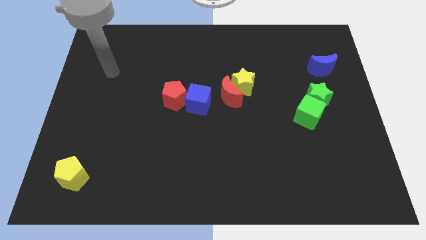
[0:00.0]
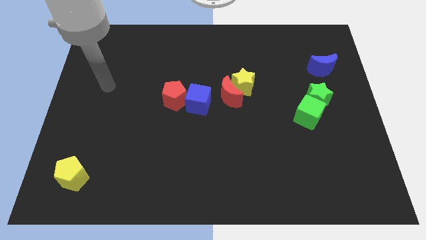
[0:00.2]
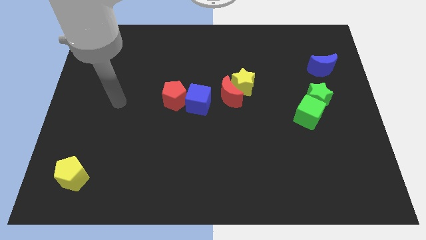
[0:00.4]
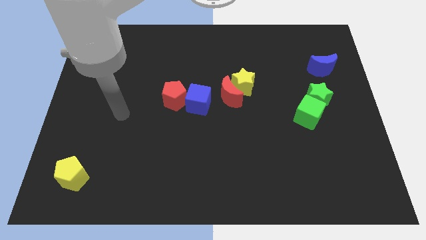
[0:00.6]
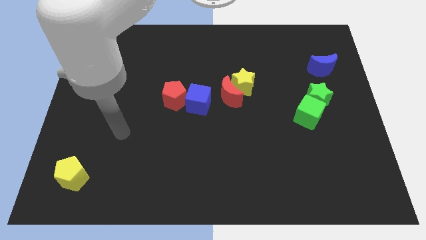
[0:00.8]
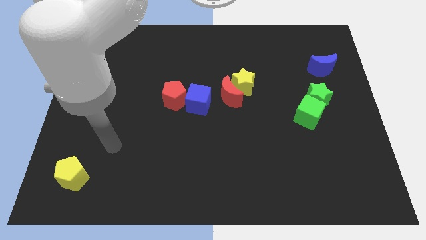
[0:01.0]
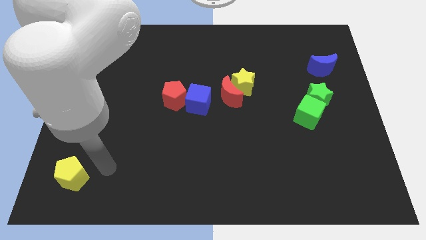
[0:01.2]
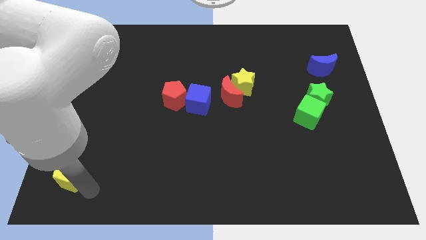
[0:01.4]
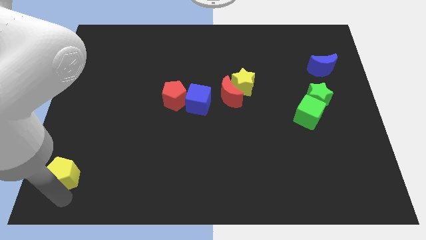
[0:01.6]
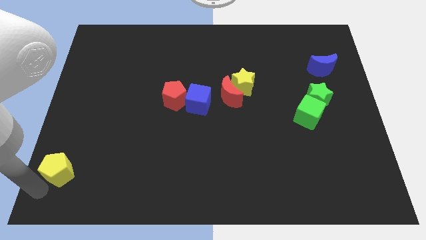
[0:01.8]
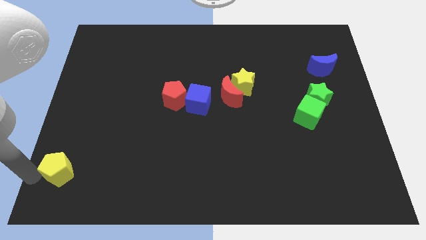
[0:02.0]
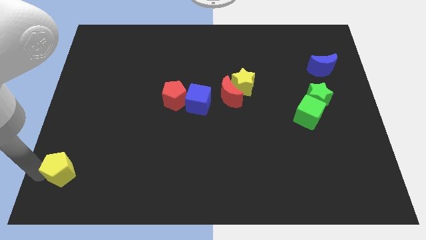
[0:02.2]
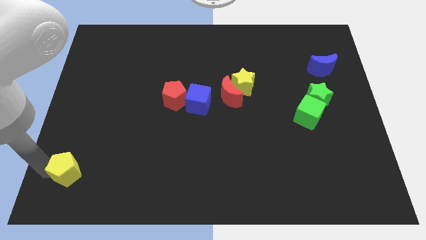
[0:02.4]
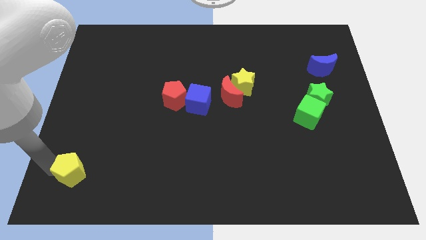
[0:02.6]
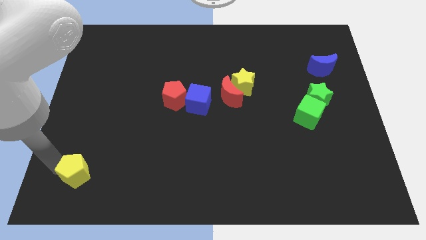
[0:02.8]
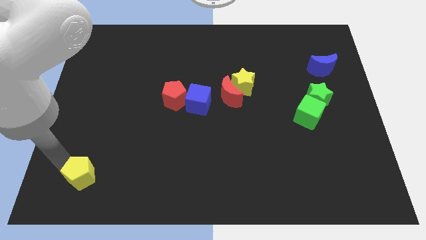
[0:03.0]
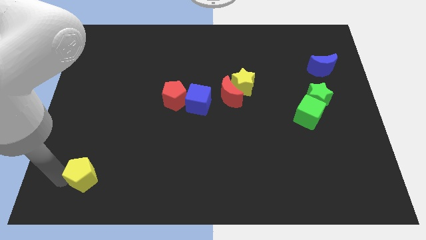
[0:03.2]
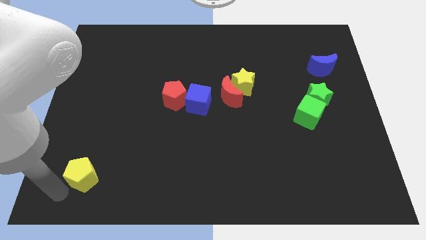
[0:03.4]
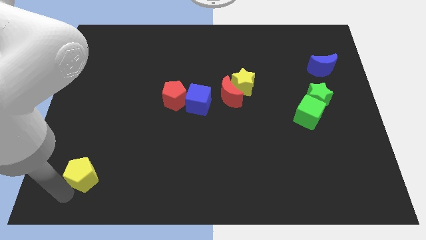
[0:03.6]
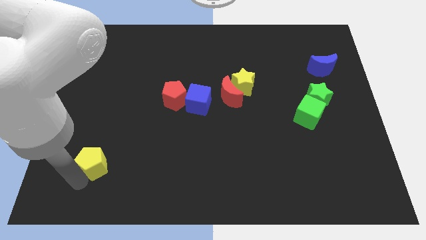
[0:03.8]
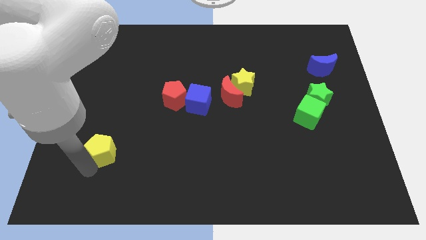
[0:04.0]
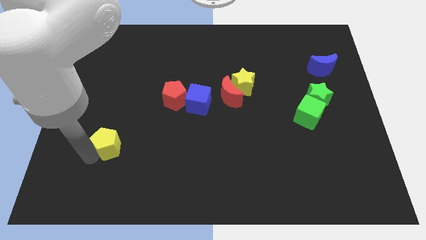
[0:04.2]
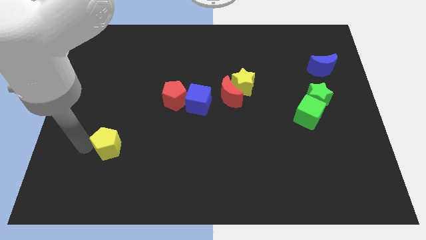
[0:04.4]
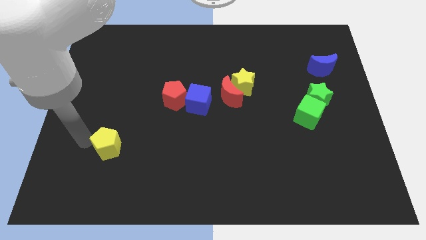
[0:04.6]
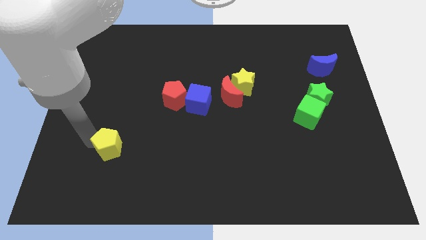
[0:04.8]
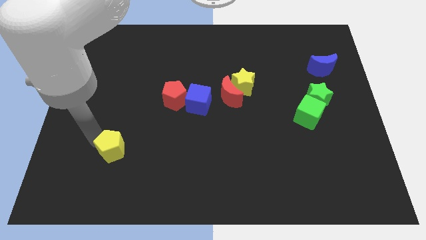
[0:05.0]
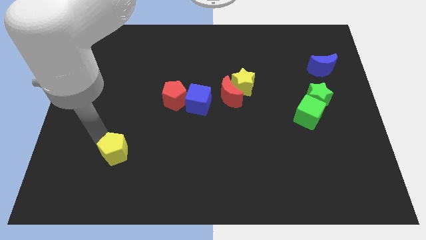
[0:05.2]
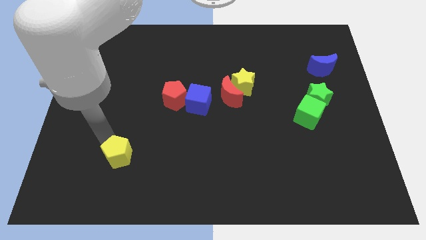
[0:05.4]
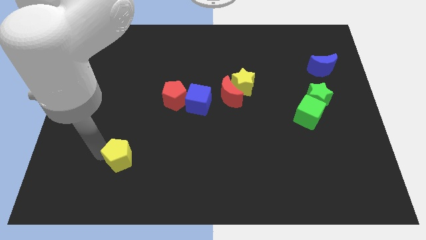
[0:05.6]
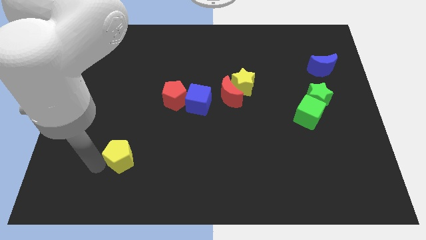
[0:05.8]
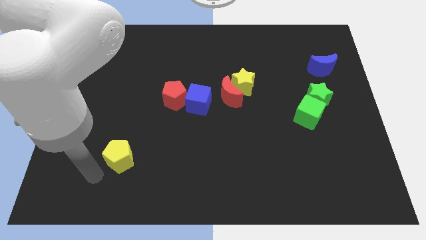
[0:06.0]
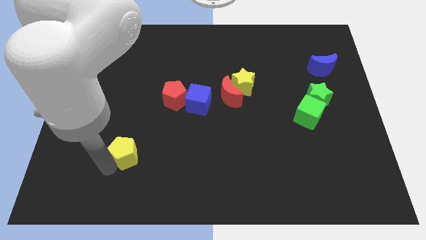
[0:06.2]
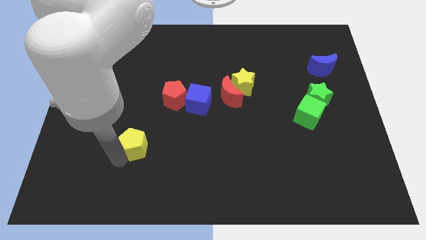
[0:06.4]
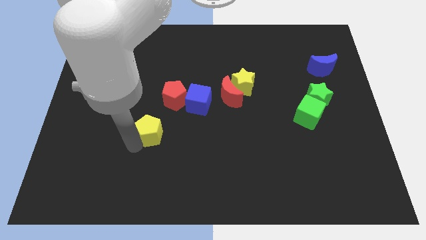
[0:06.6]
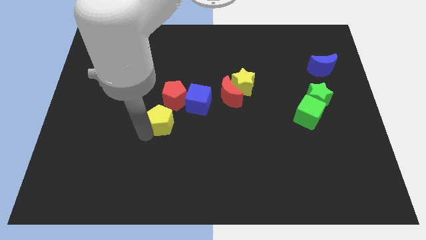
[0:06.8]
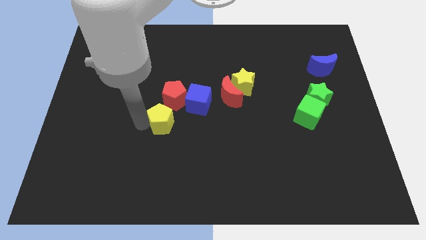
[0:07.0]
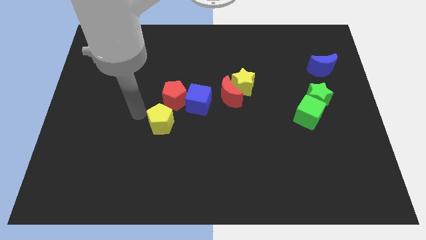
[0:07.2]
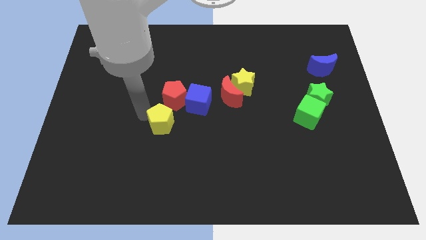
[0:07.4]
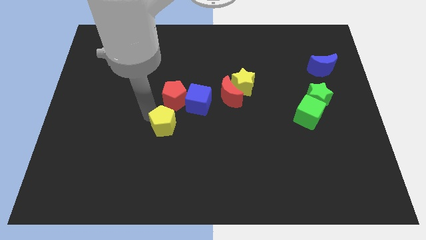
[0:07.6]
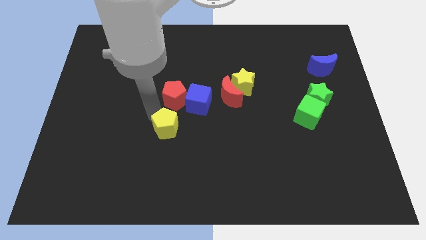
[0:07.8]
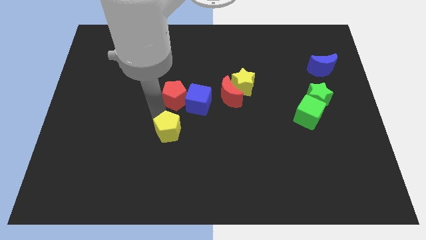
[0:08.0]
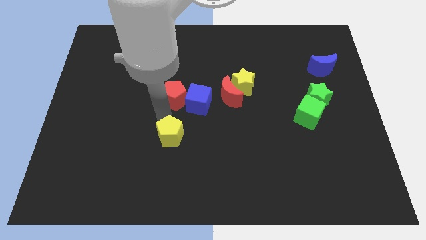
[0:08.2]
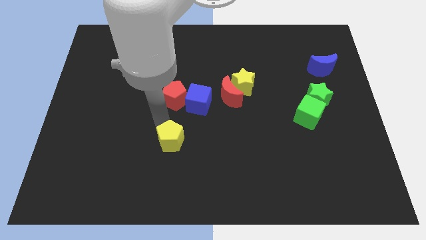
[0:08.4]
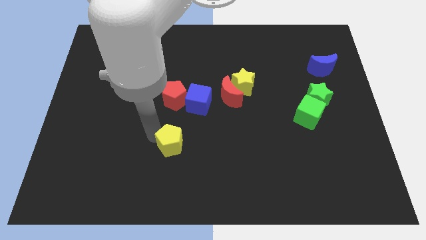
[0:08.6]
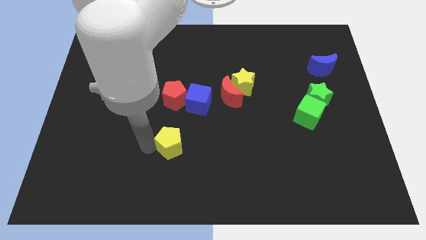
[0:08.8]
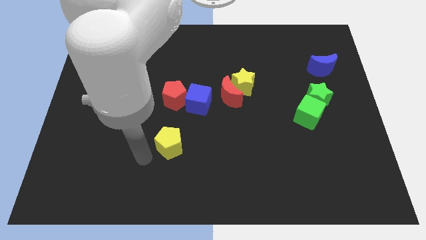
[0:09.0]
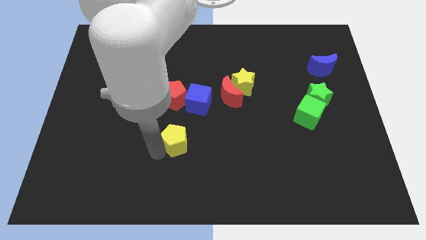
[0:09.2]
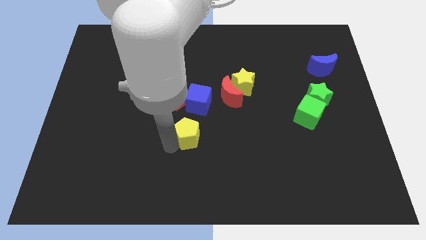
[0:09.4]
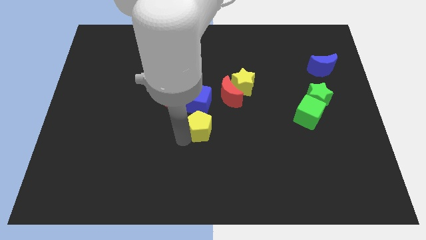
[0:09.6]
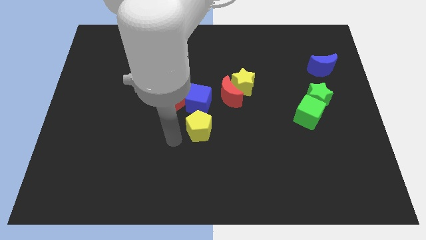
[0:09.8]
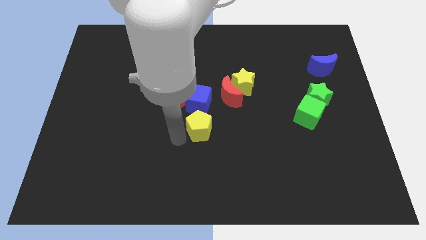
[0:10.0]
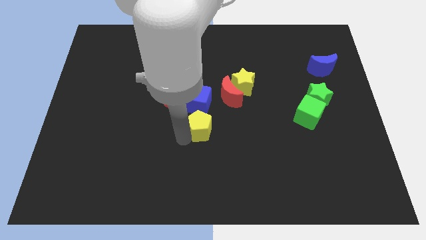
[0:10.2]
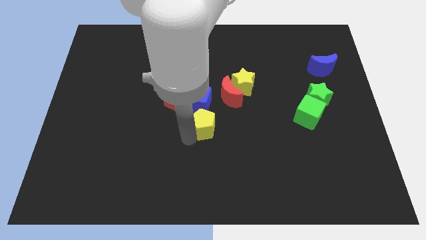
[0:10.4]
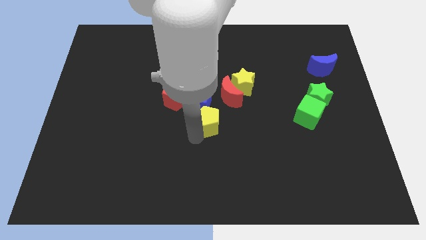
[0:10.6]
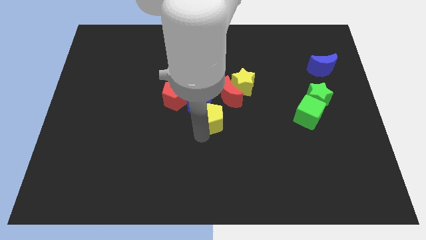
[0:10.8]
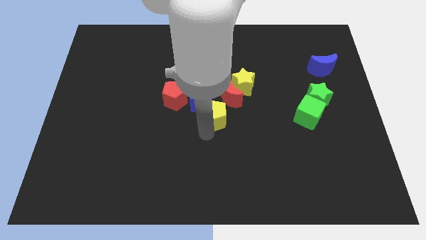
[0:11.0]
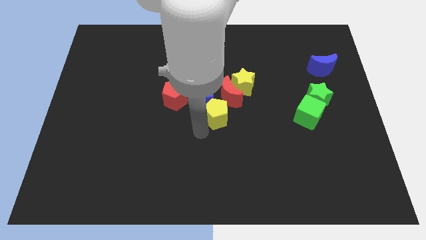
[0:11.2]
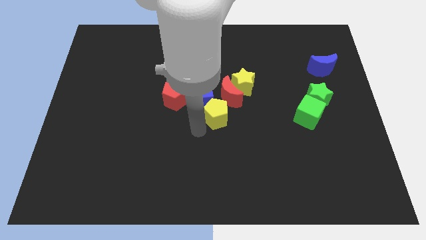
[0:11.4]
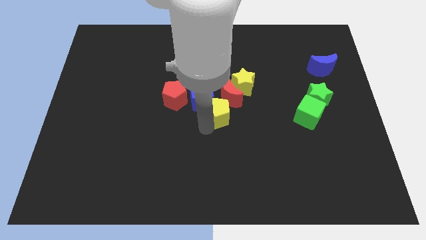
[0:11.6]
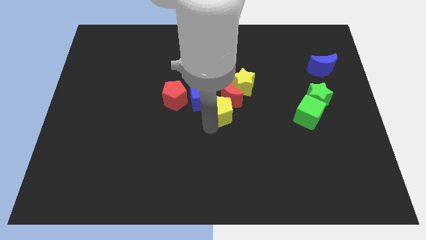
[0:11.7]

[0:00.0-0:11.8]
move the yellow pentagon just right of the blue cube

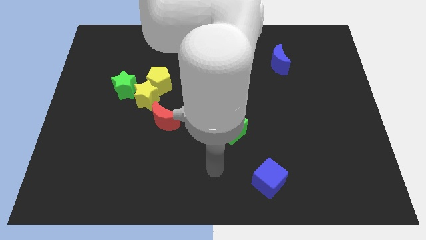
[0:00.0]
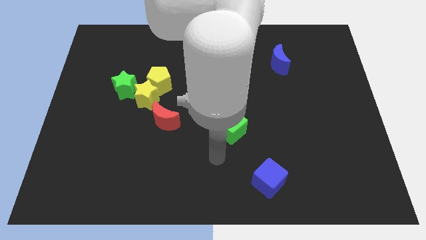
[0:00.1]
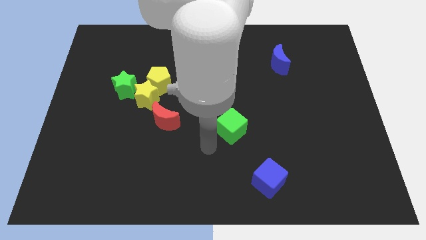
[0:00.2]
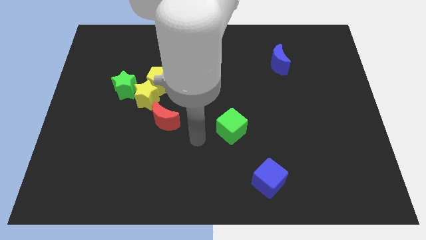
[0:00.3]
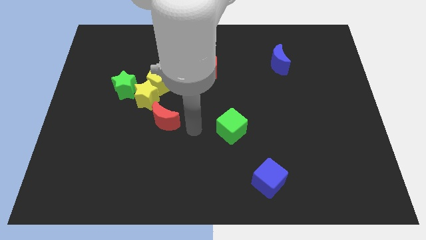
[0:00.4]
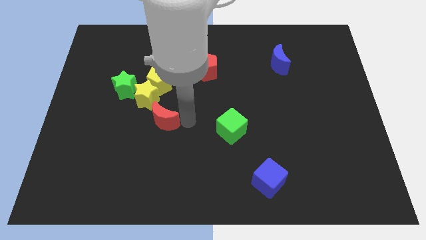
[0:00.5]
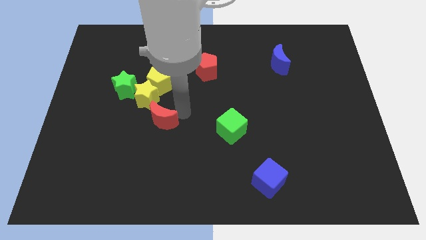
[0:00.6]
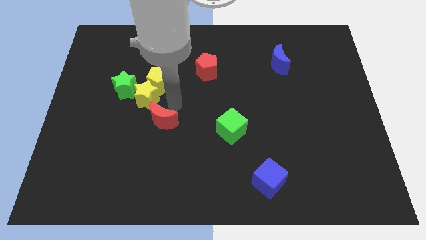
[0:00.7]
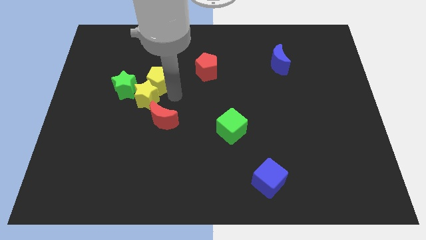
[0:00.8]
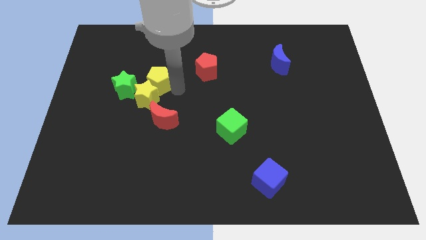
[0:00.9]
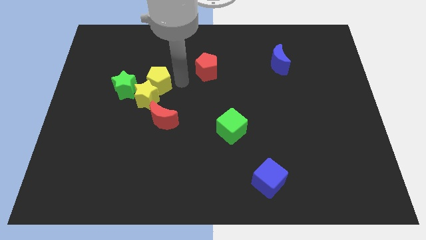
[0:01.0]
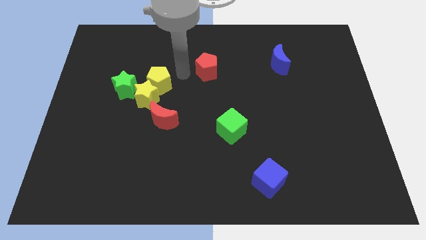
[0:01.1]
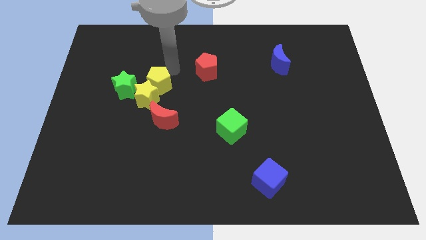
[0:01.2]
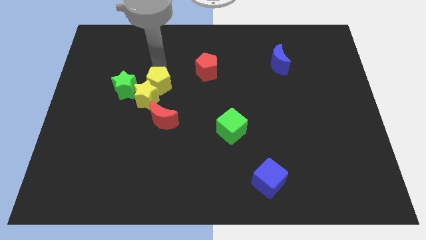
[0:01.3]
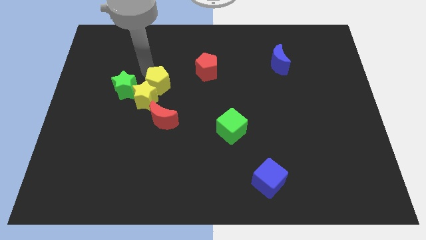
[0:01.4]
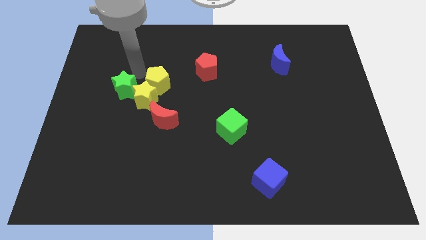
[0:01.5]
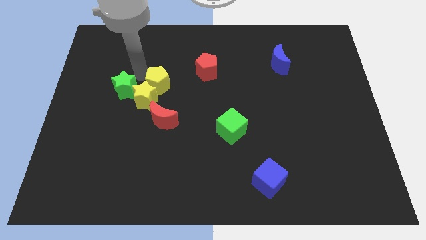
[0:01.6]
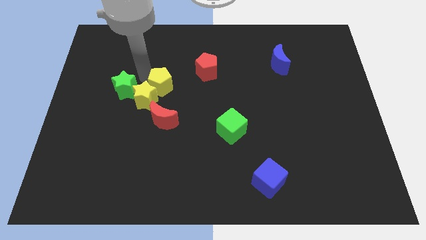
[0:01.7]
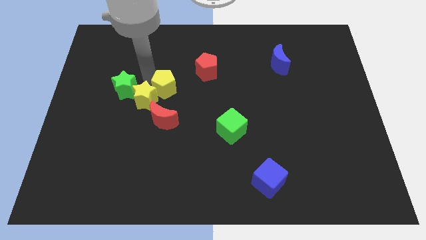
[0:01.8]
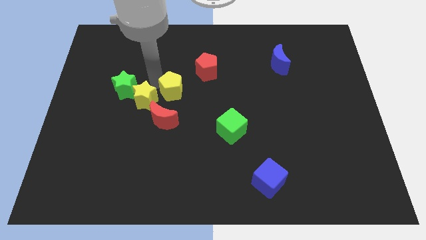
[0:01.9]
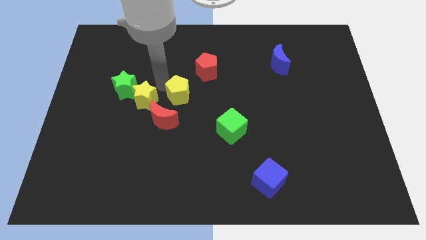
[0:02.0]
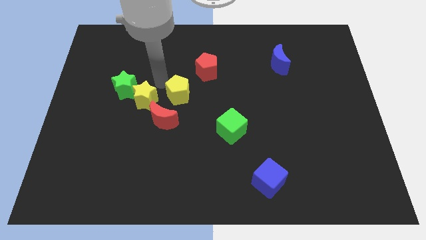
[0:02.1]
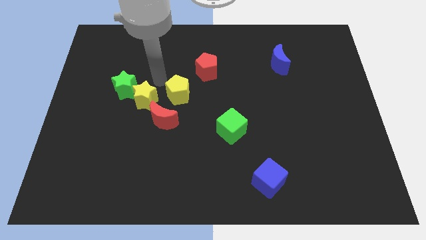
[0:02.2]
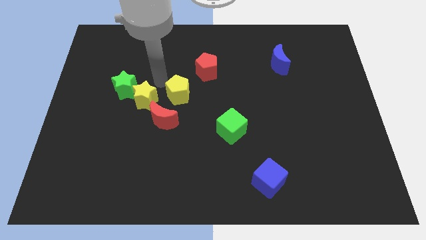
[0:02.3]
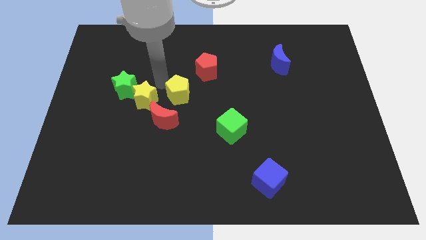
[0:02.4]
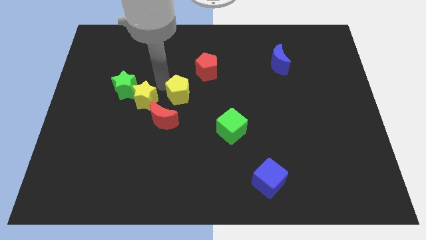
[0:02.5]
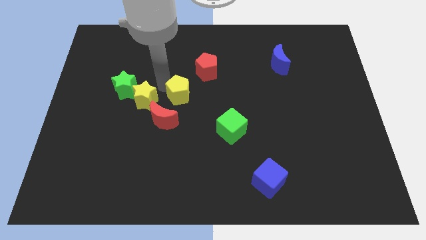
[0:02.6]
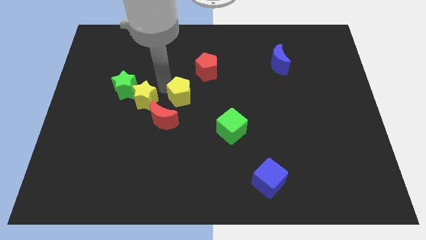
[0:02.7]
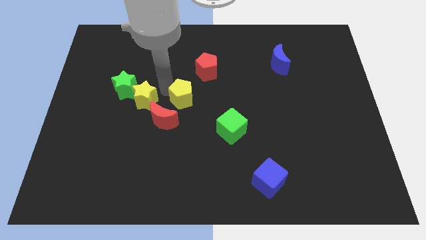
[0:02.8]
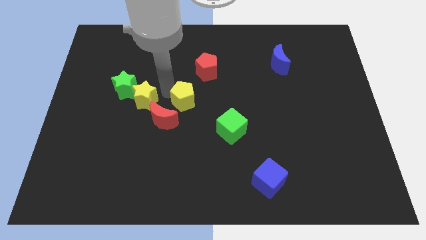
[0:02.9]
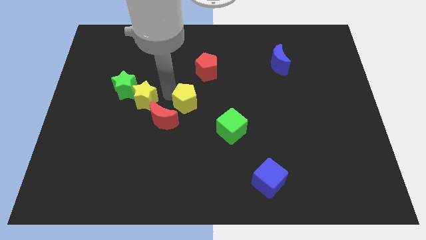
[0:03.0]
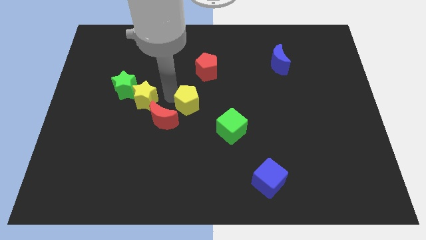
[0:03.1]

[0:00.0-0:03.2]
push the yellow pentagon to the top left side of the green cube
